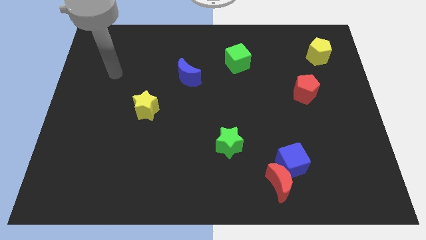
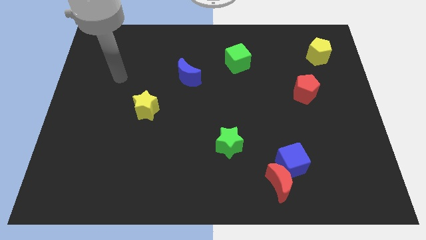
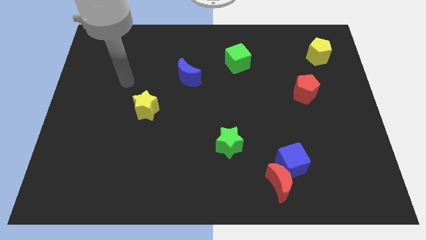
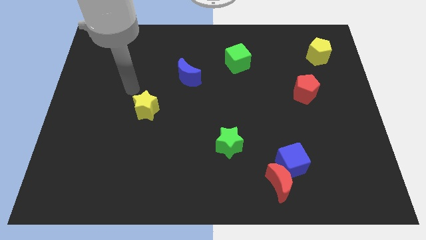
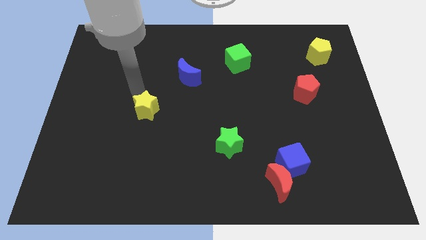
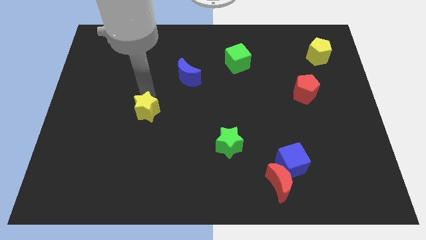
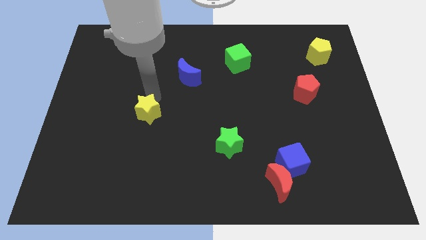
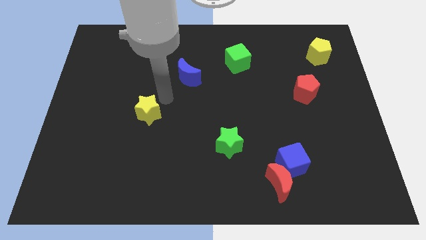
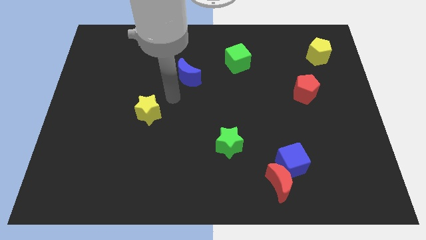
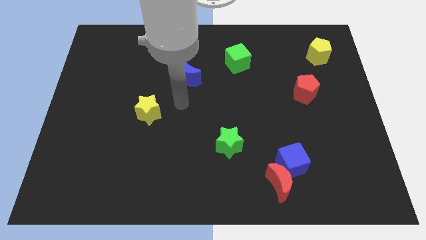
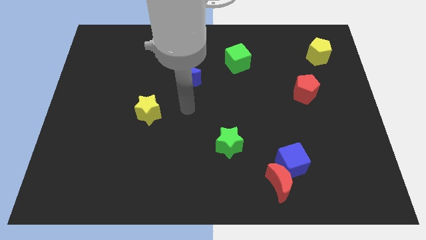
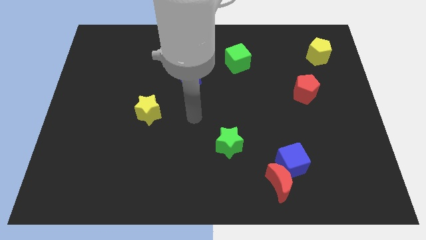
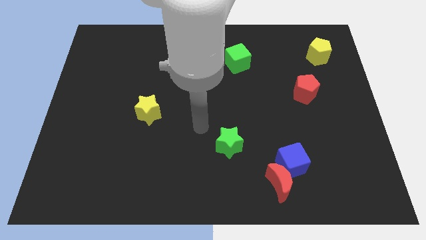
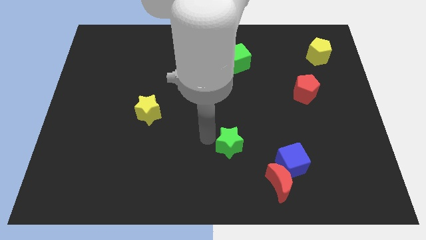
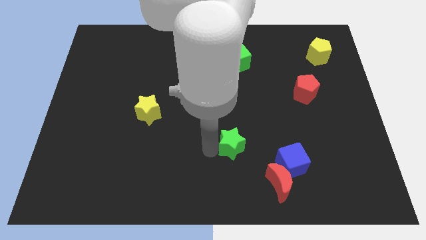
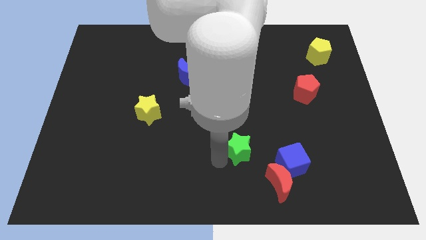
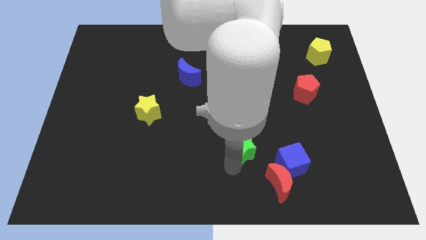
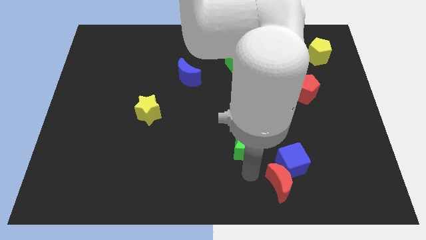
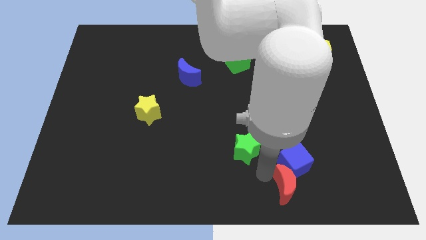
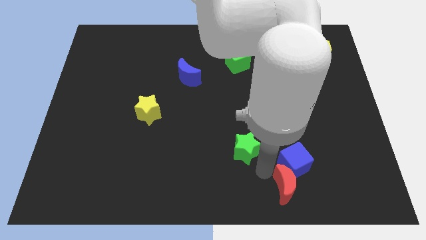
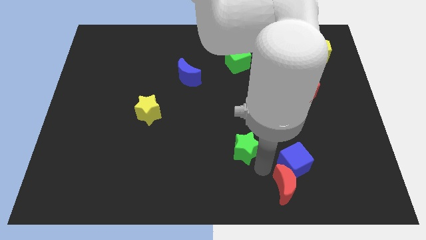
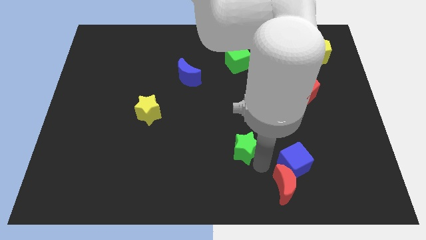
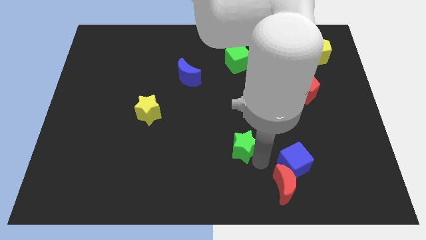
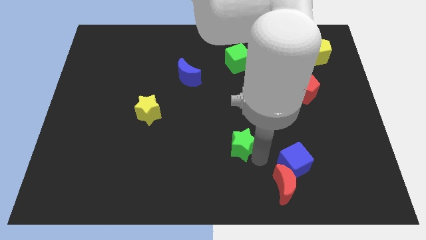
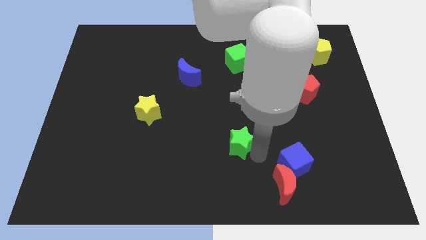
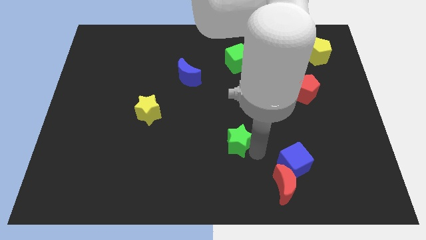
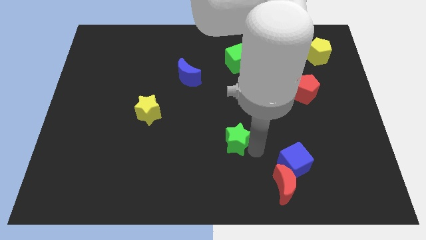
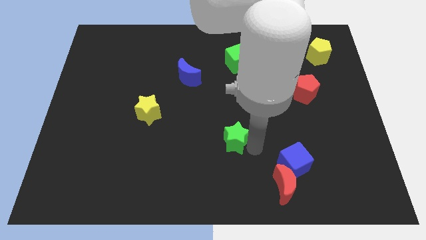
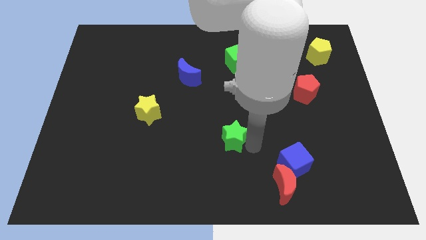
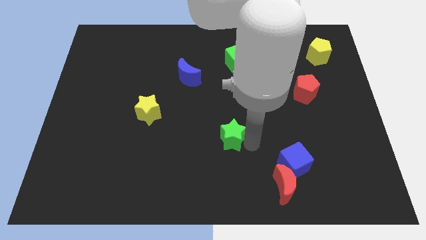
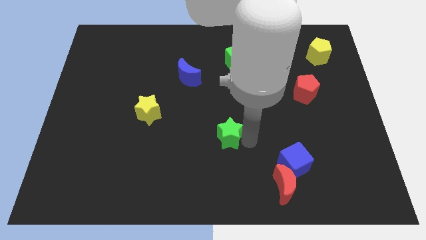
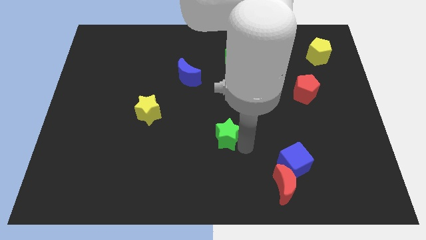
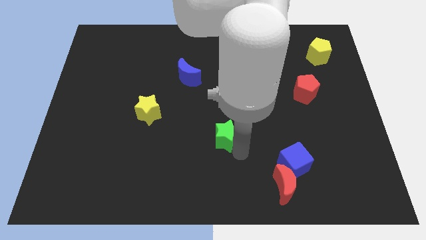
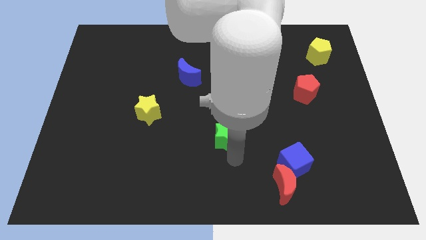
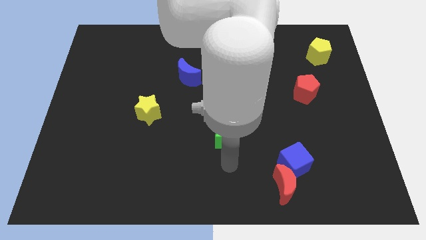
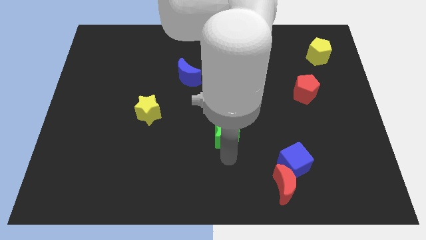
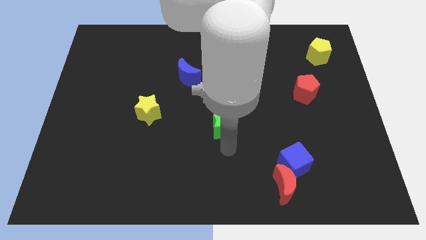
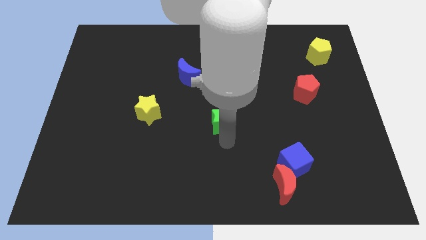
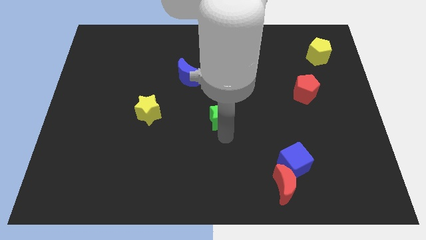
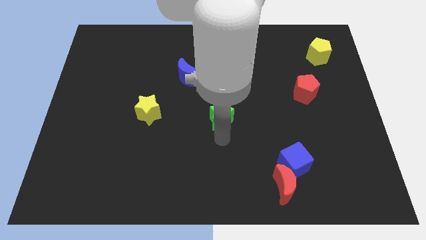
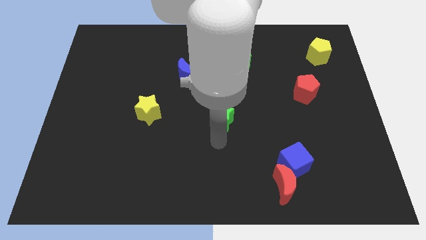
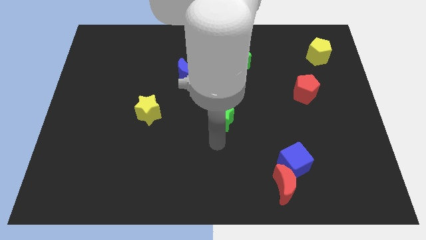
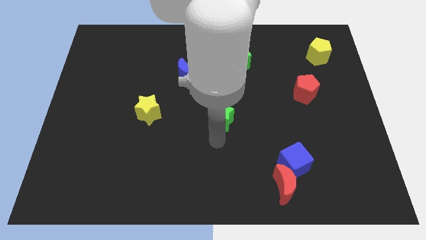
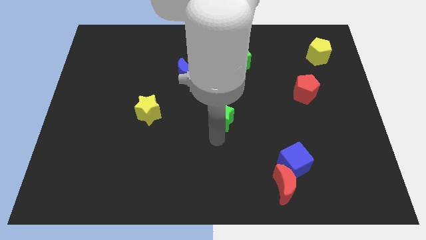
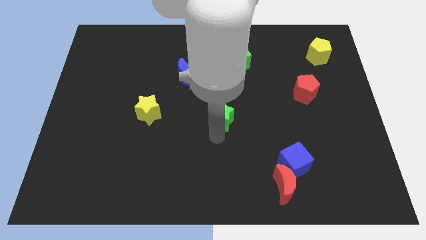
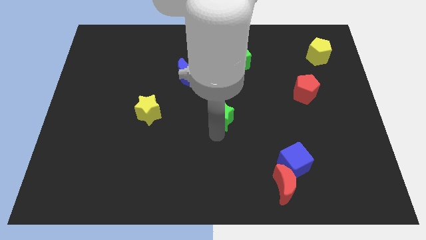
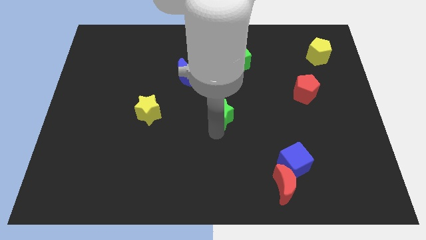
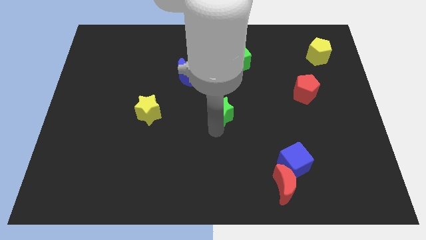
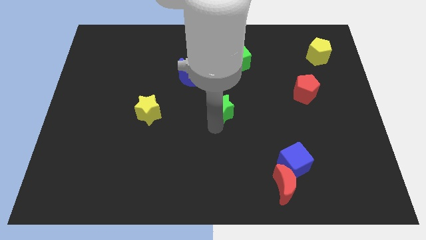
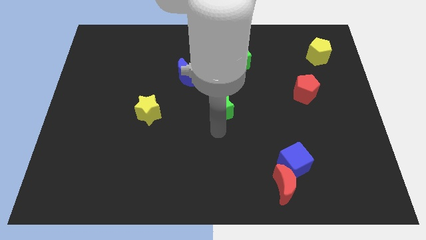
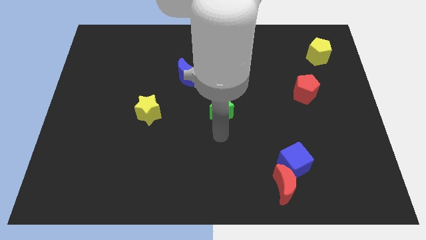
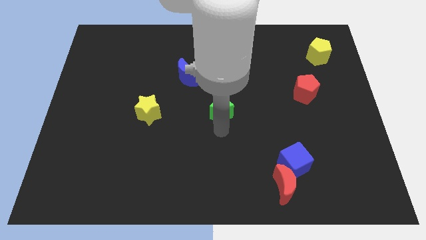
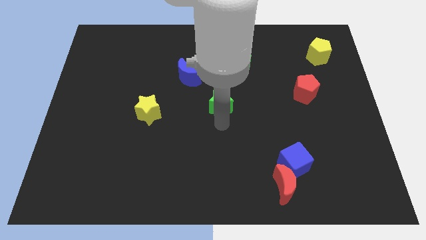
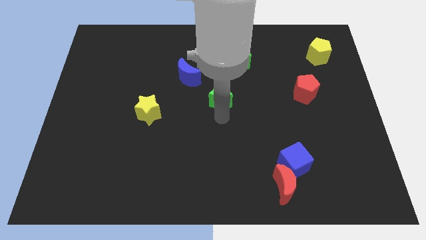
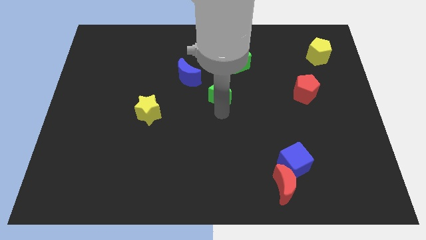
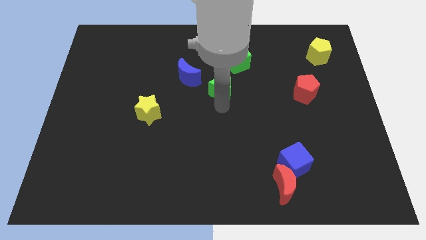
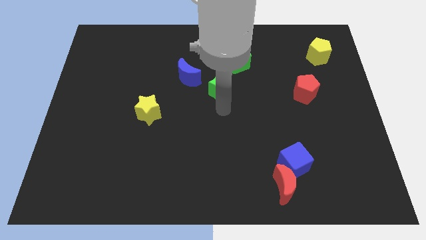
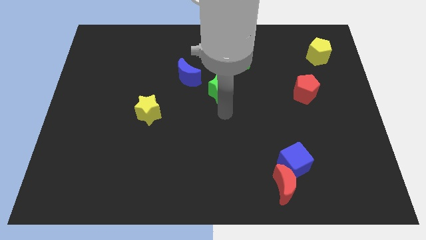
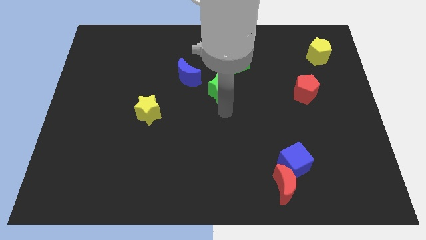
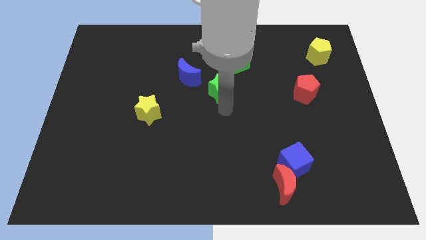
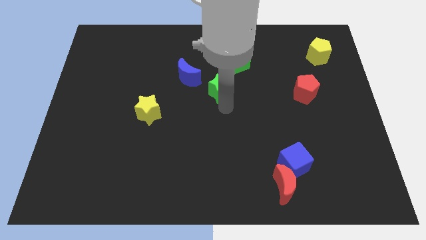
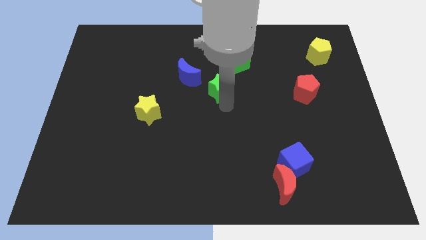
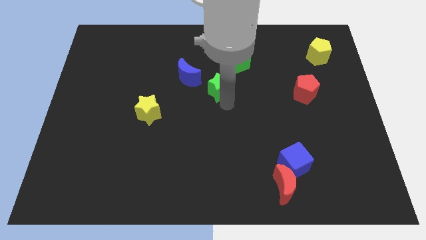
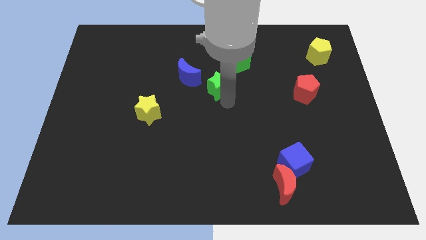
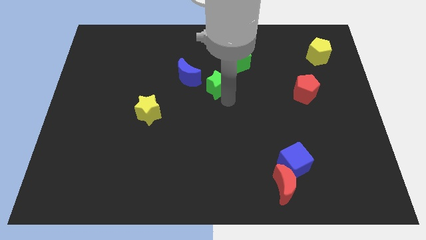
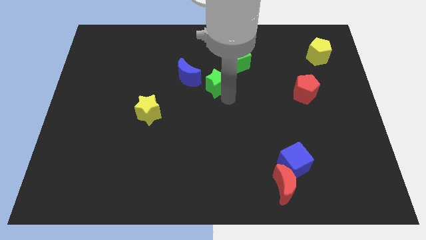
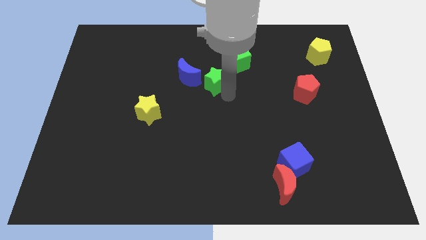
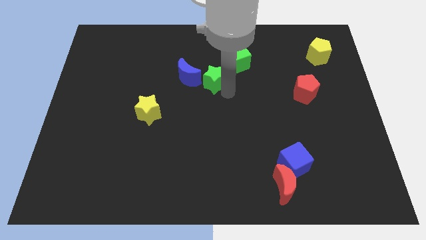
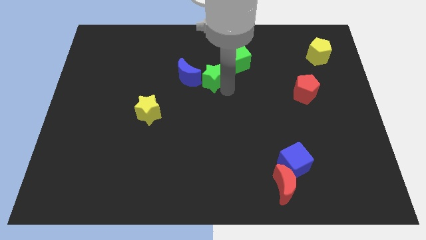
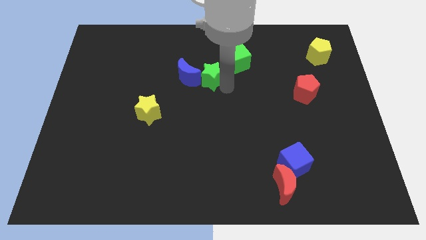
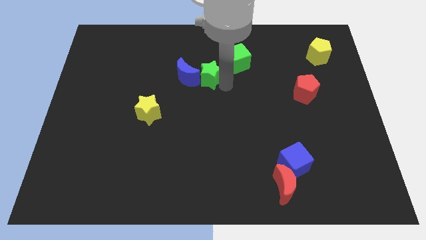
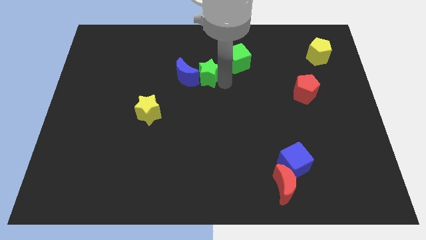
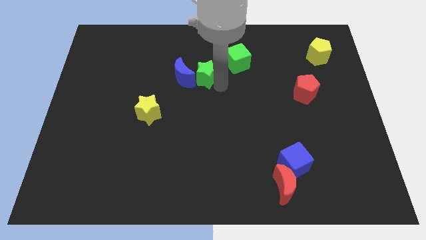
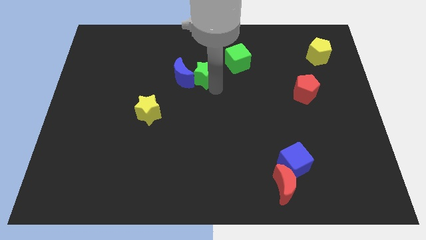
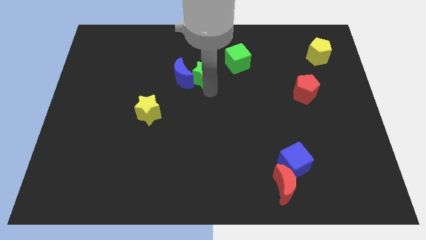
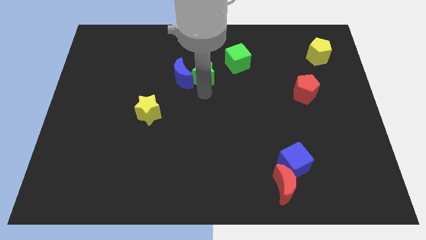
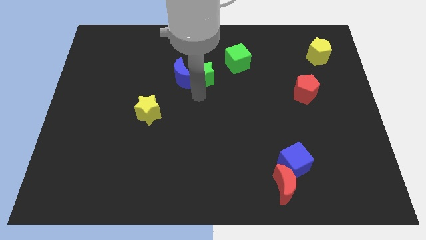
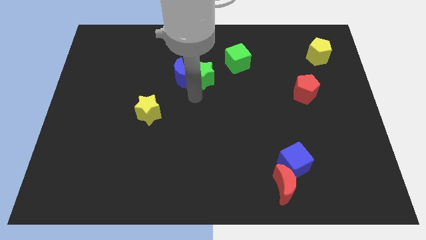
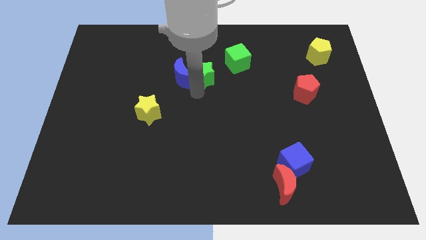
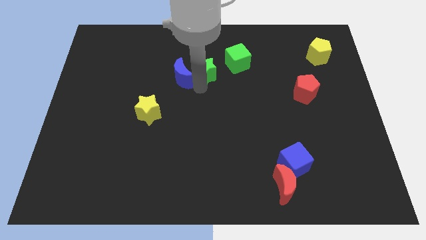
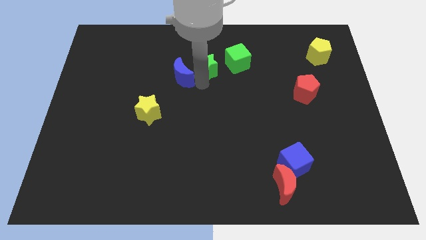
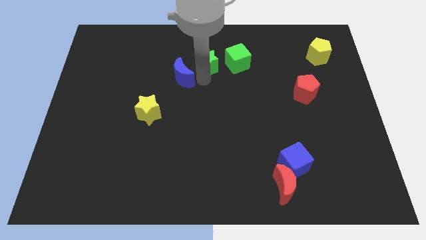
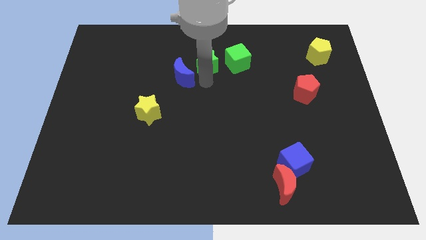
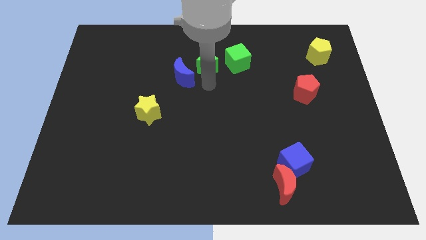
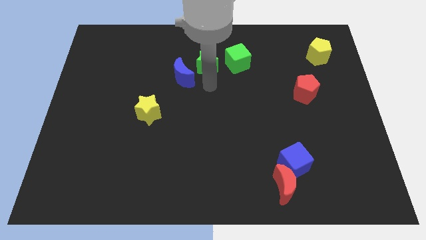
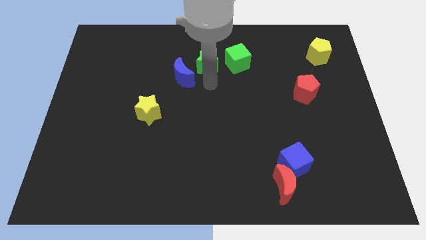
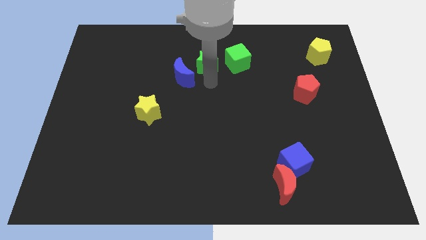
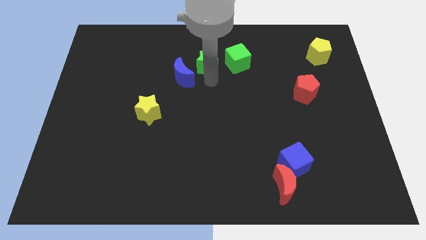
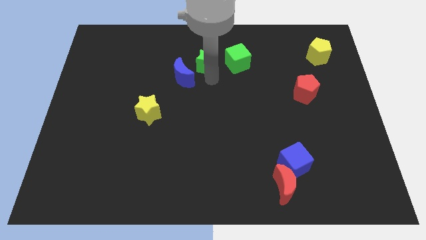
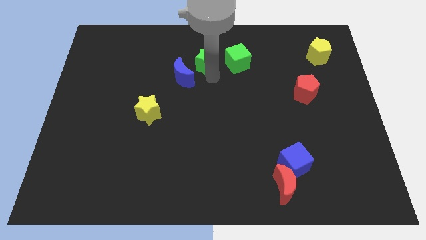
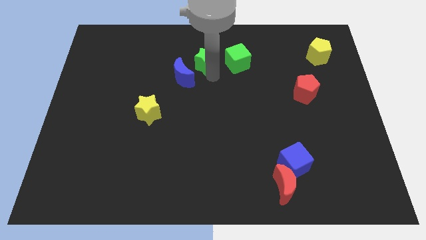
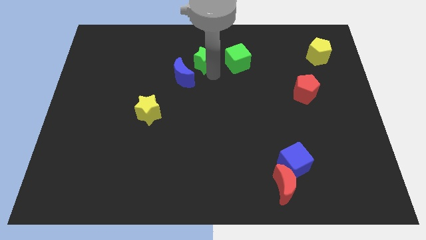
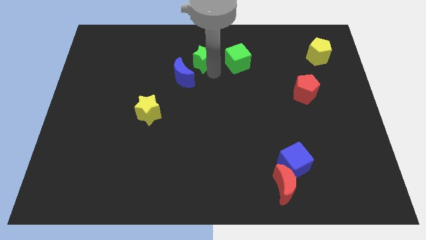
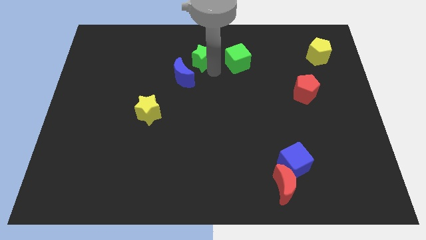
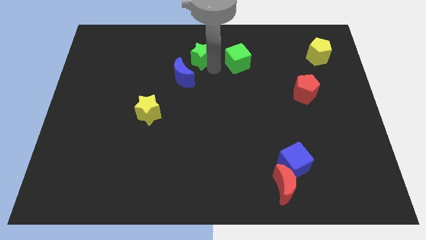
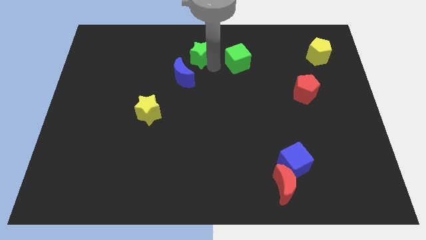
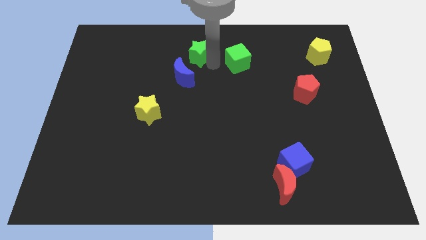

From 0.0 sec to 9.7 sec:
put the green star to the top side
